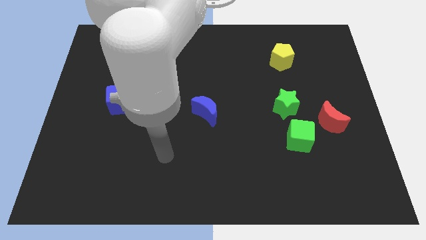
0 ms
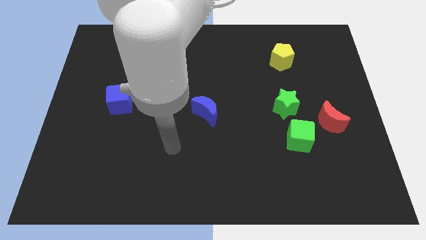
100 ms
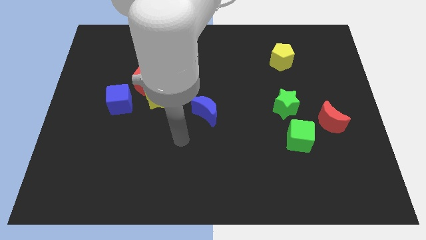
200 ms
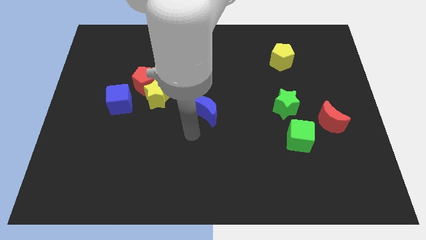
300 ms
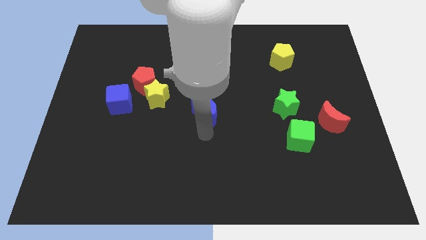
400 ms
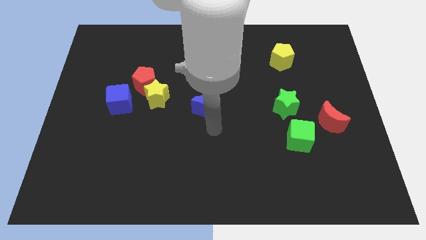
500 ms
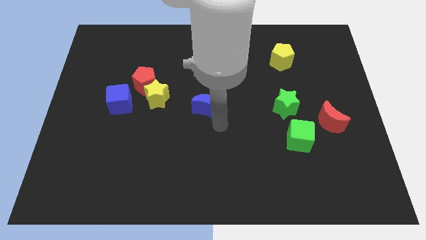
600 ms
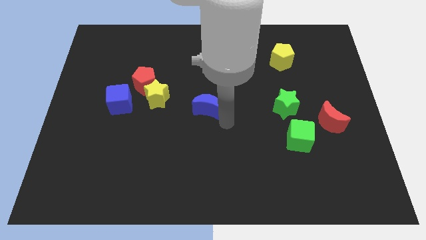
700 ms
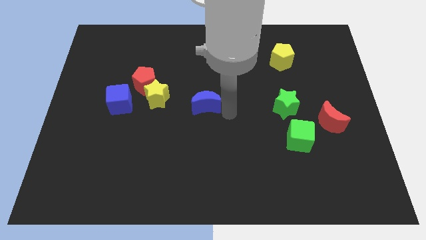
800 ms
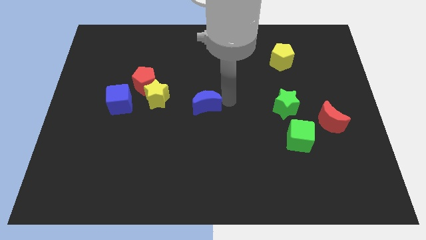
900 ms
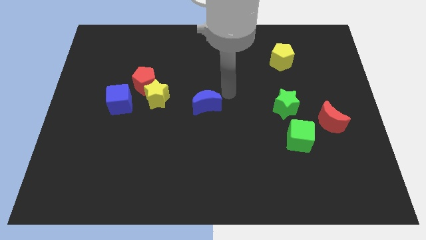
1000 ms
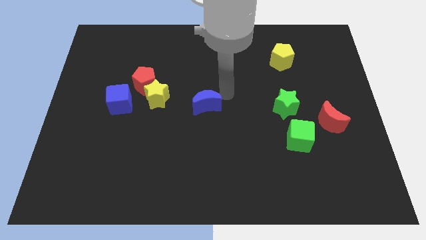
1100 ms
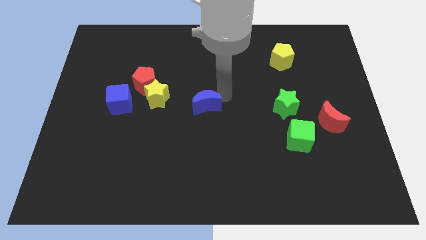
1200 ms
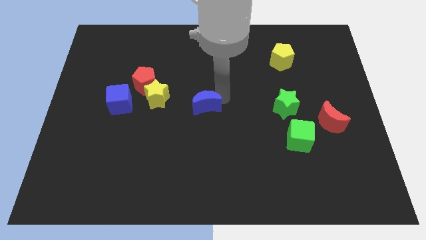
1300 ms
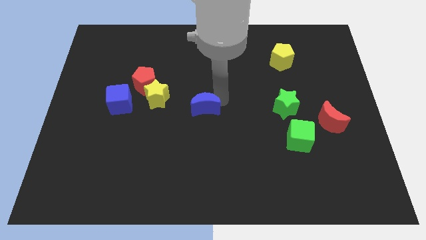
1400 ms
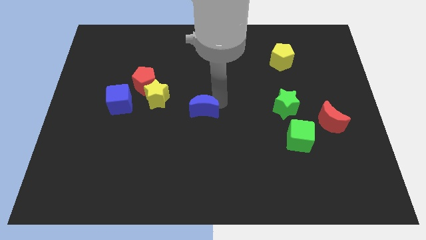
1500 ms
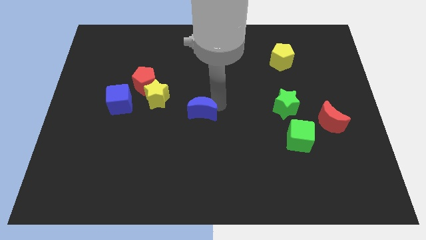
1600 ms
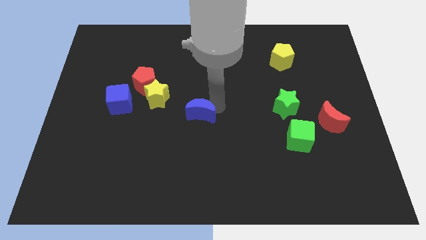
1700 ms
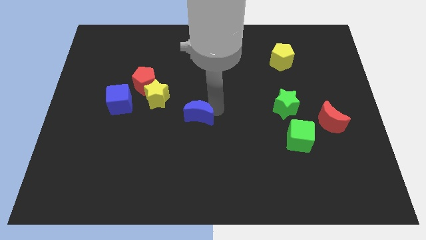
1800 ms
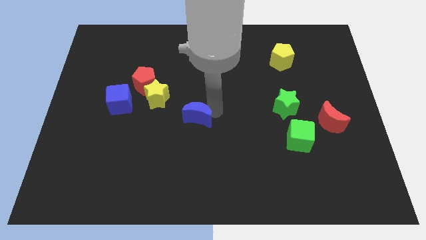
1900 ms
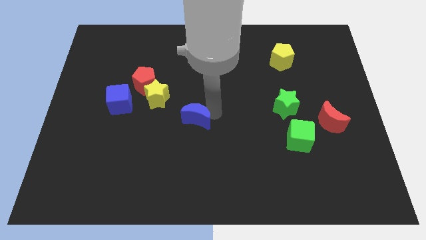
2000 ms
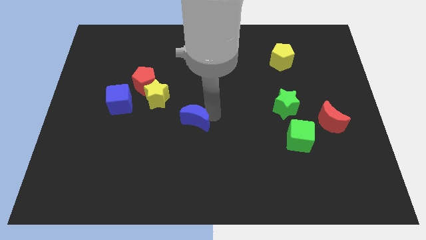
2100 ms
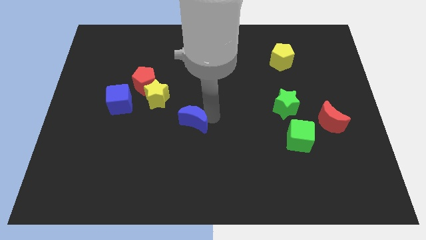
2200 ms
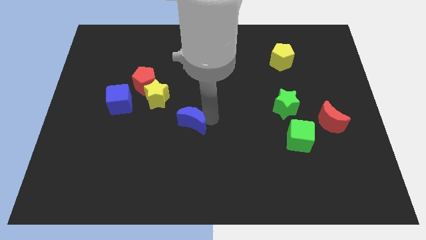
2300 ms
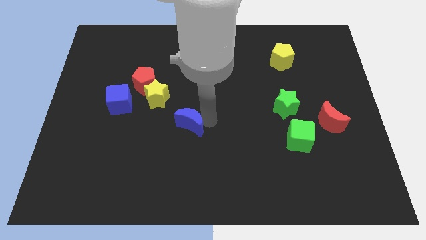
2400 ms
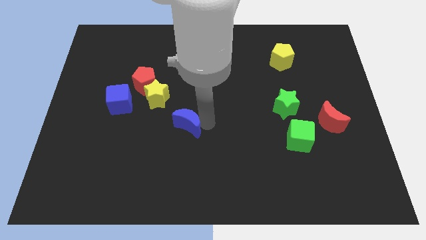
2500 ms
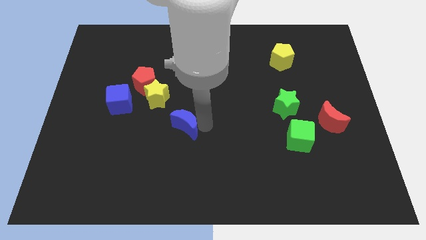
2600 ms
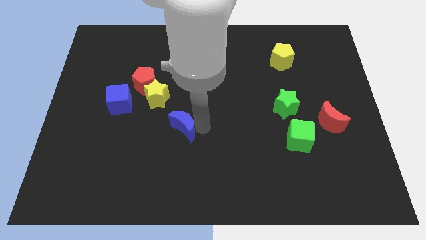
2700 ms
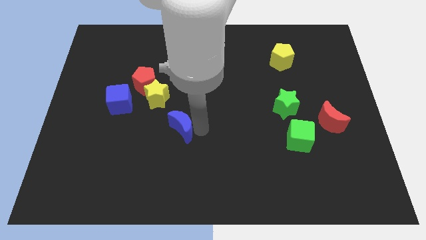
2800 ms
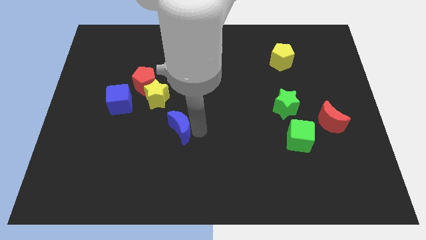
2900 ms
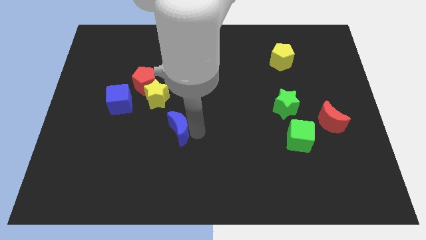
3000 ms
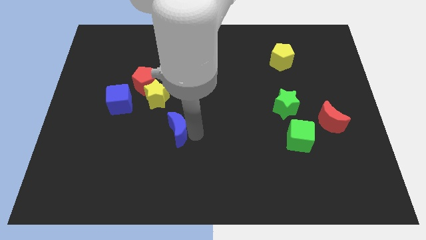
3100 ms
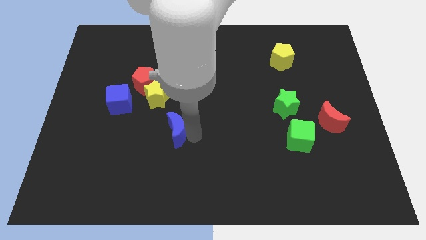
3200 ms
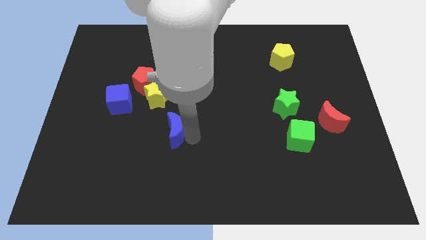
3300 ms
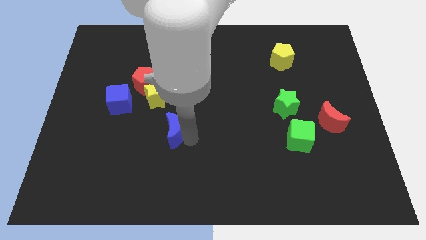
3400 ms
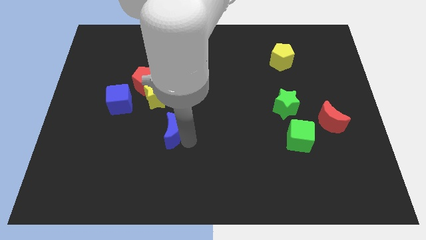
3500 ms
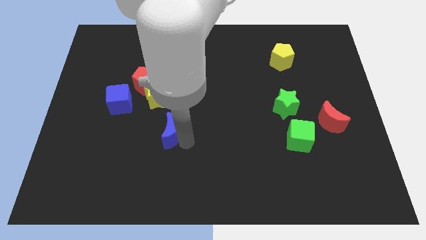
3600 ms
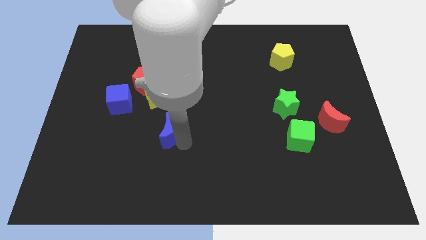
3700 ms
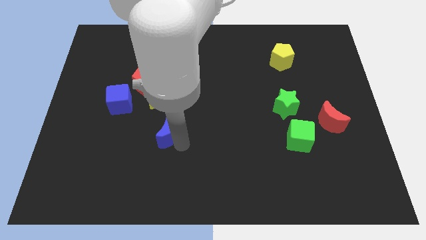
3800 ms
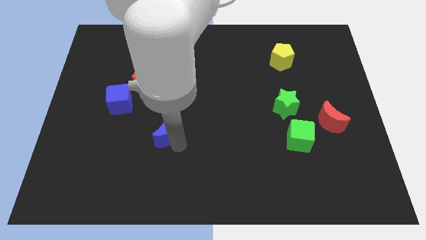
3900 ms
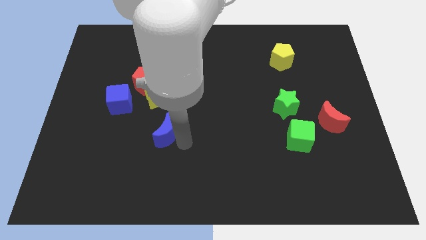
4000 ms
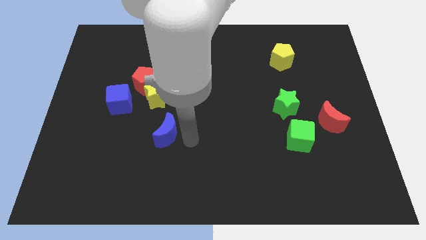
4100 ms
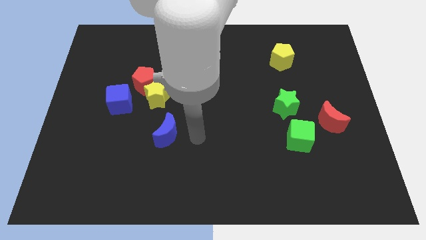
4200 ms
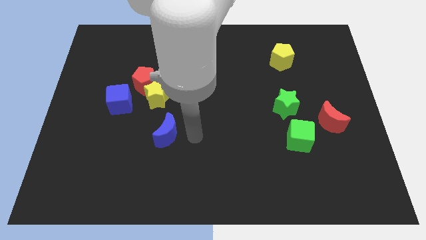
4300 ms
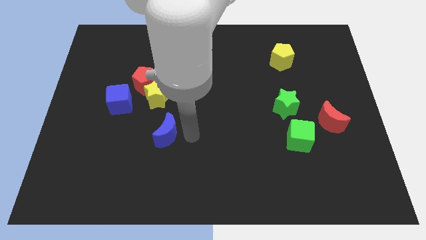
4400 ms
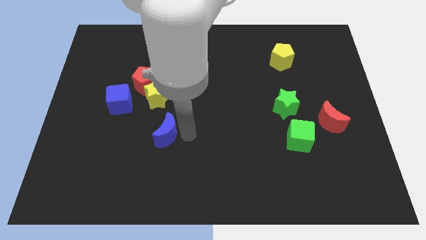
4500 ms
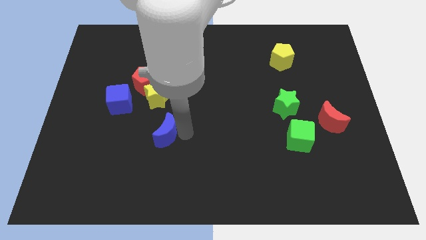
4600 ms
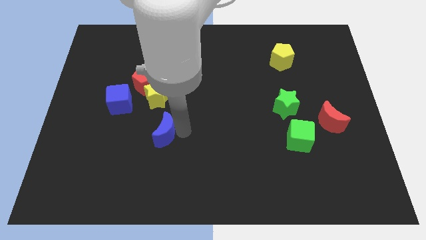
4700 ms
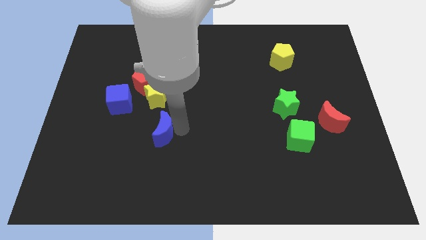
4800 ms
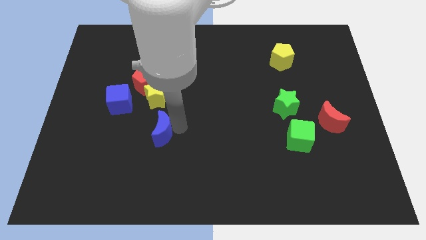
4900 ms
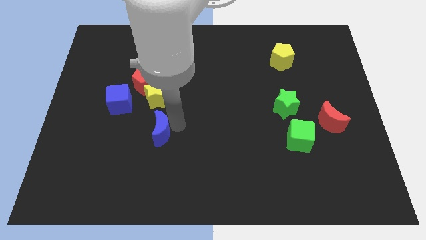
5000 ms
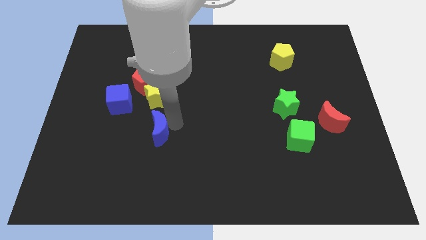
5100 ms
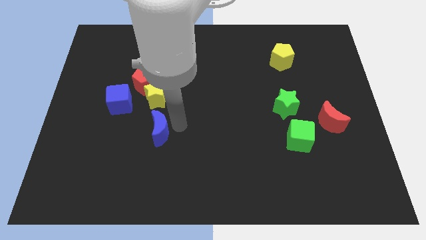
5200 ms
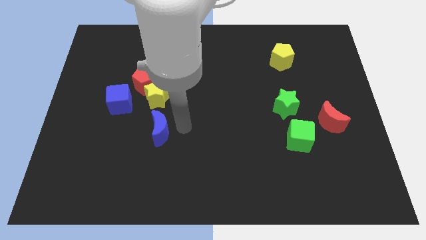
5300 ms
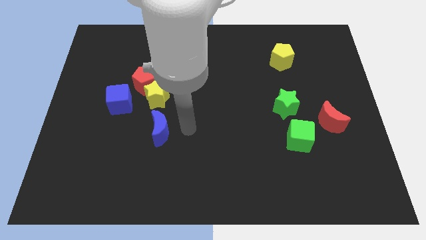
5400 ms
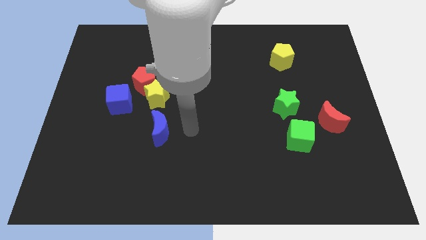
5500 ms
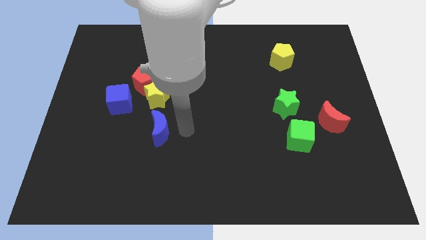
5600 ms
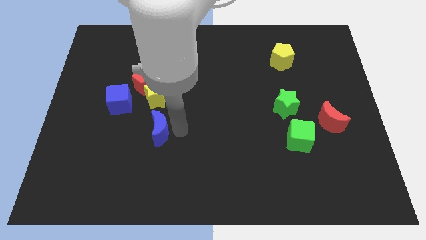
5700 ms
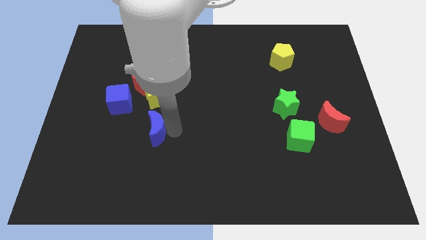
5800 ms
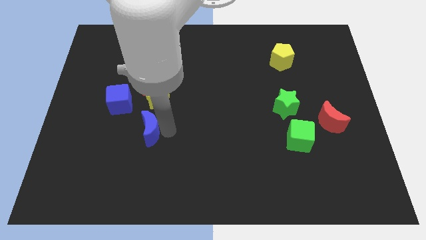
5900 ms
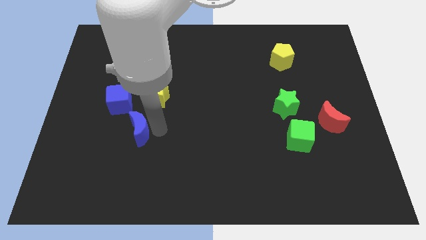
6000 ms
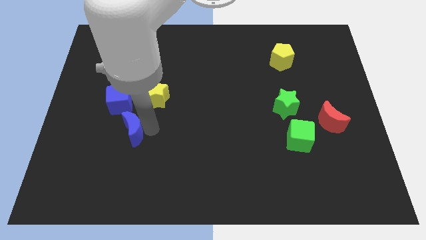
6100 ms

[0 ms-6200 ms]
put the blue moon below the blue cube

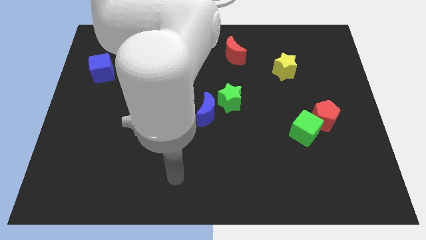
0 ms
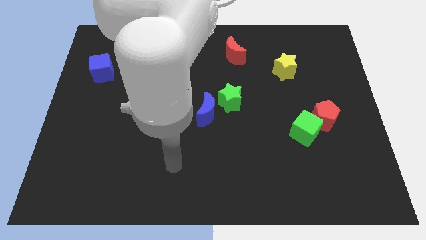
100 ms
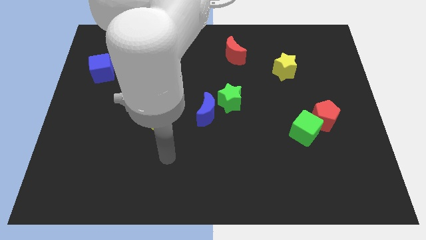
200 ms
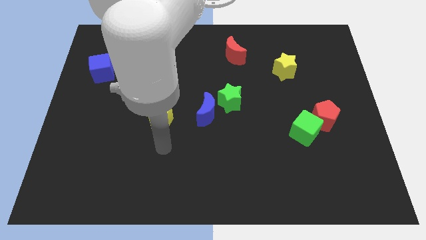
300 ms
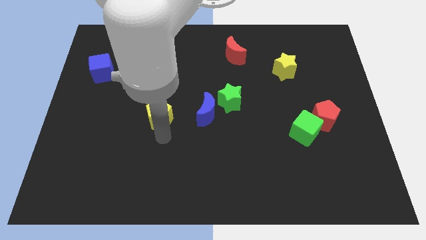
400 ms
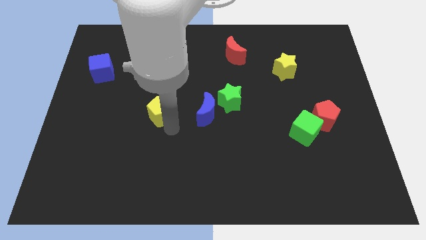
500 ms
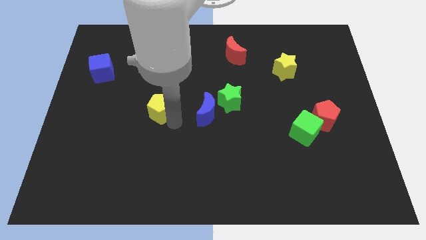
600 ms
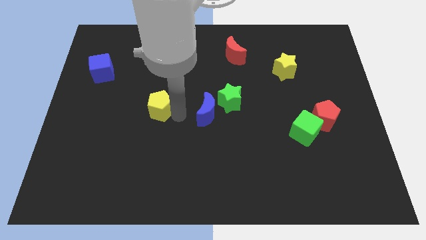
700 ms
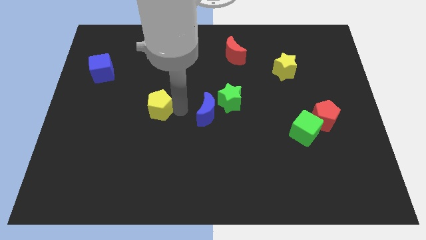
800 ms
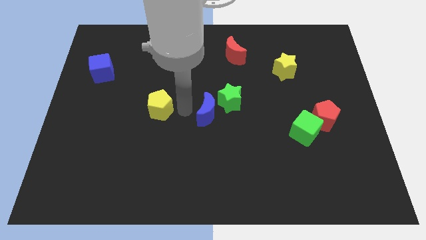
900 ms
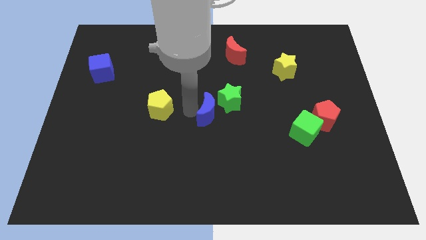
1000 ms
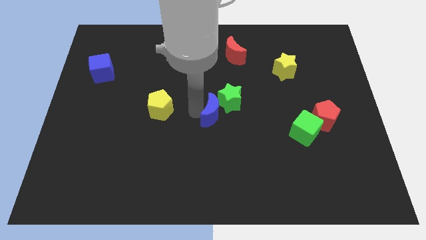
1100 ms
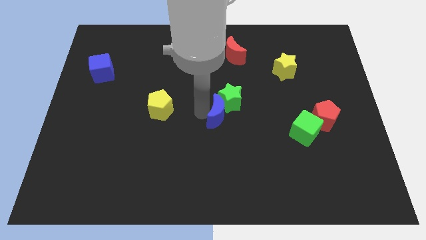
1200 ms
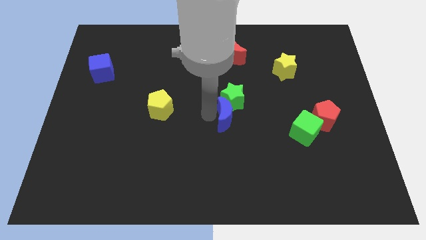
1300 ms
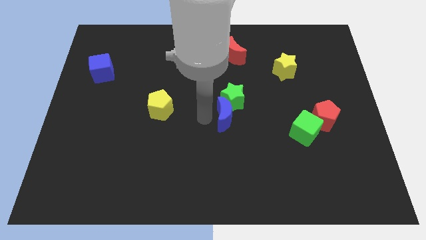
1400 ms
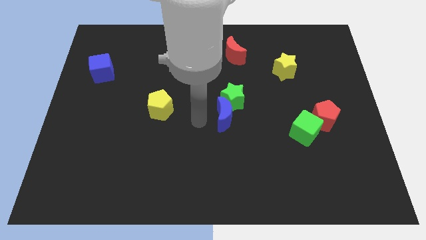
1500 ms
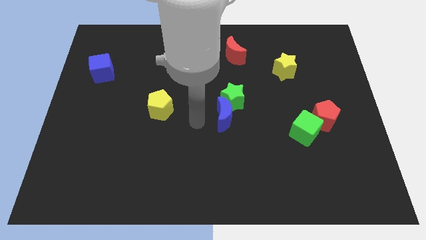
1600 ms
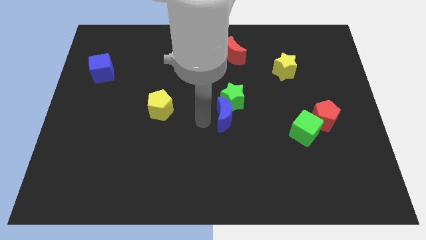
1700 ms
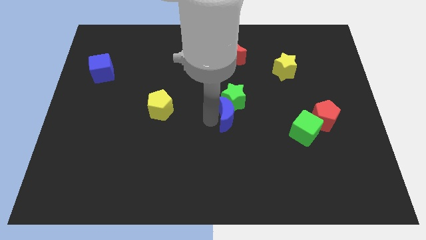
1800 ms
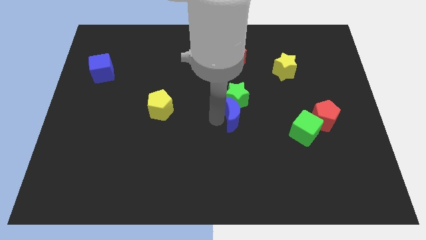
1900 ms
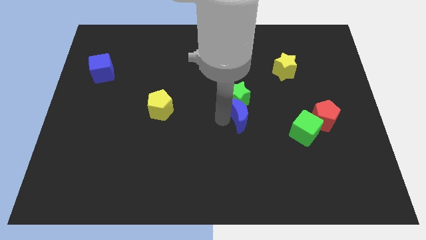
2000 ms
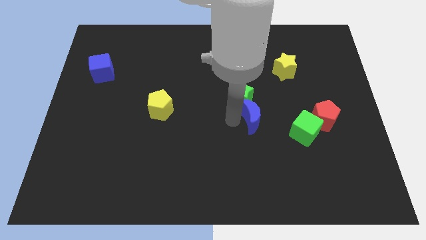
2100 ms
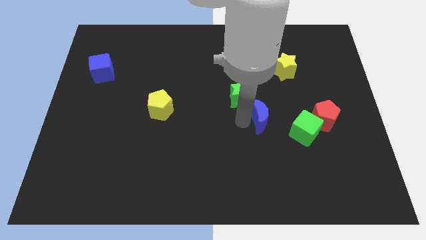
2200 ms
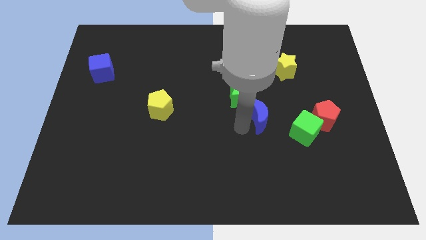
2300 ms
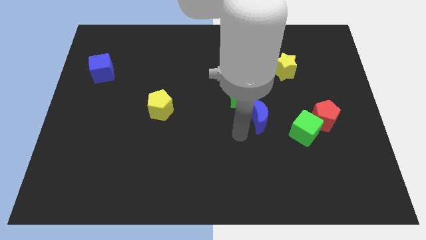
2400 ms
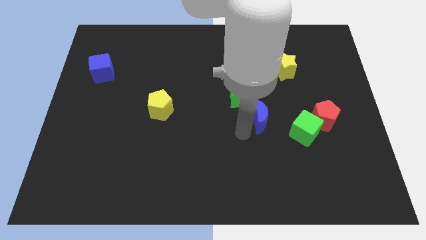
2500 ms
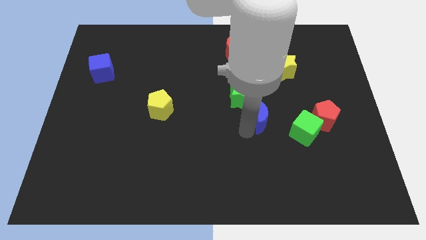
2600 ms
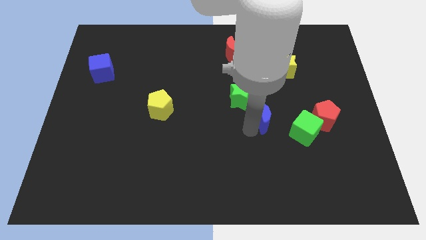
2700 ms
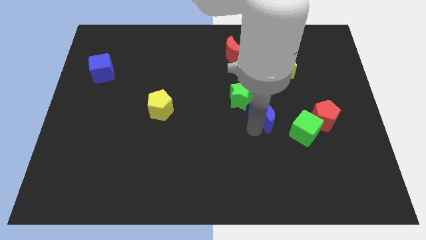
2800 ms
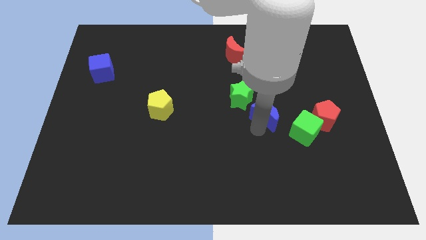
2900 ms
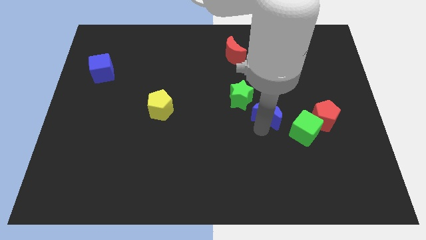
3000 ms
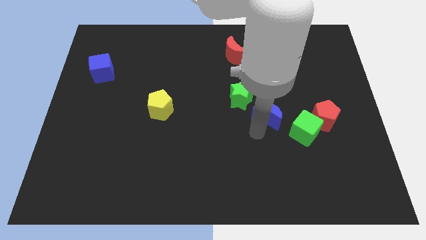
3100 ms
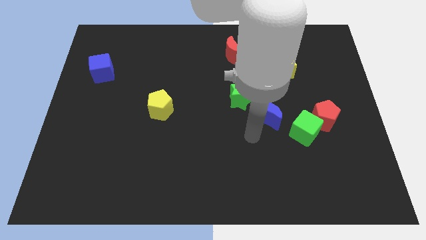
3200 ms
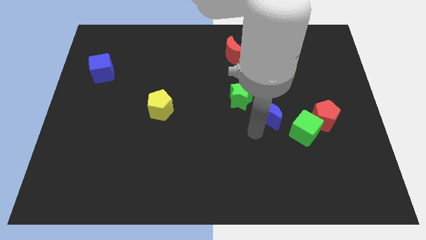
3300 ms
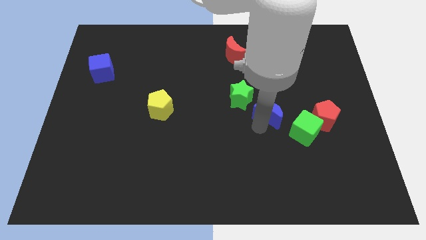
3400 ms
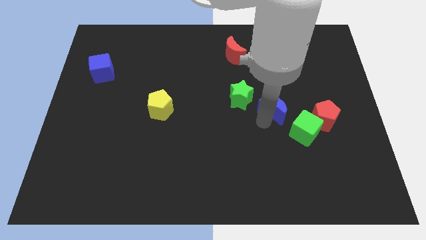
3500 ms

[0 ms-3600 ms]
slide the blue moon to the right of the green star
